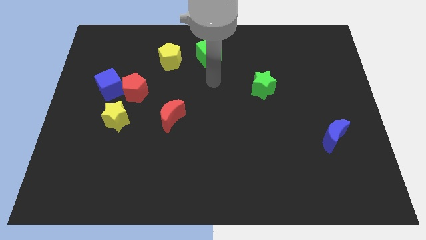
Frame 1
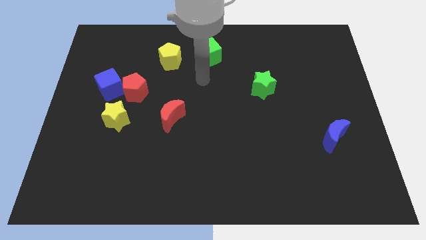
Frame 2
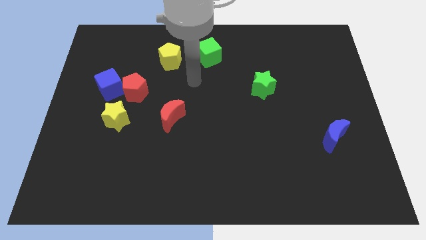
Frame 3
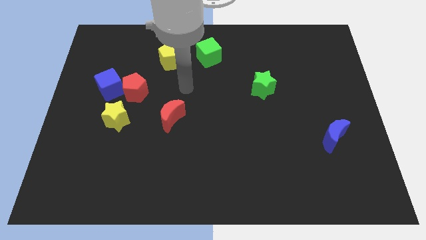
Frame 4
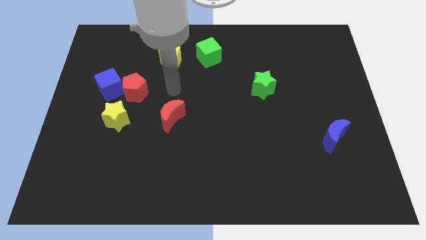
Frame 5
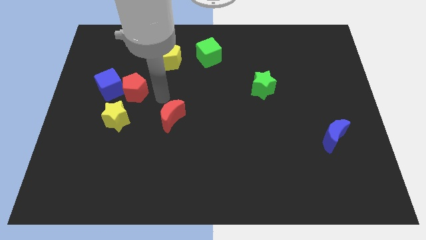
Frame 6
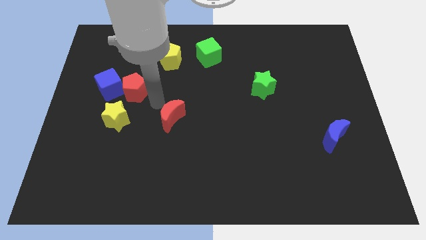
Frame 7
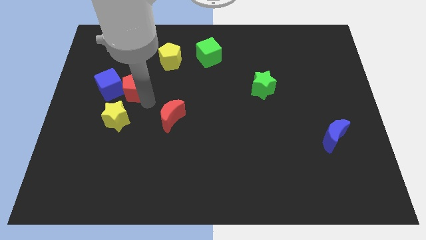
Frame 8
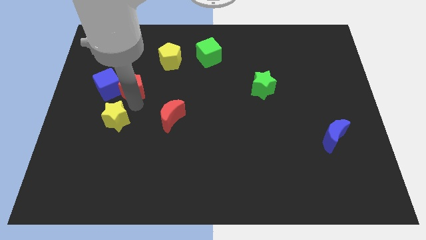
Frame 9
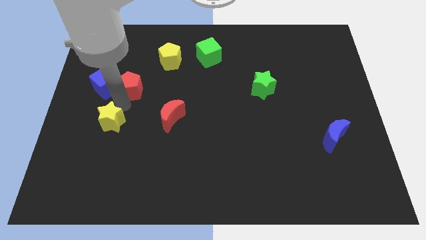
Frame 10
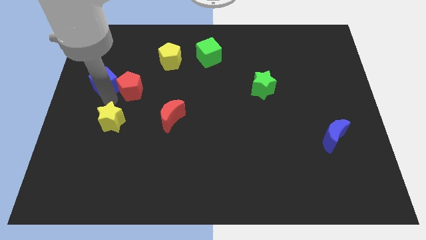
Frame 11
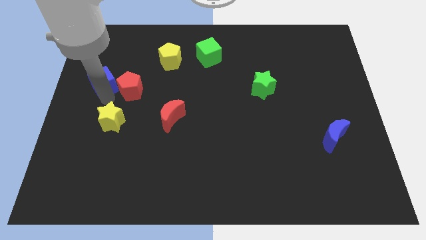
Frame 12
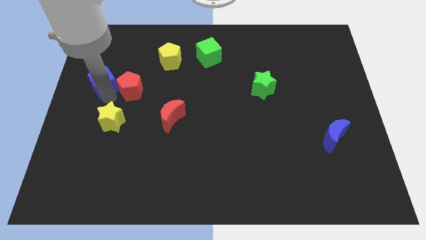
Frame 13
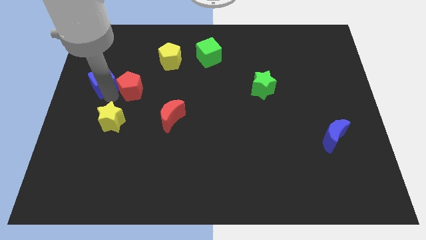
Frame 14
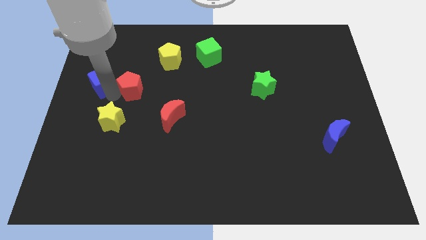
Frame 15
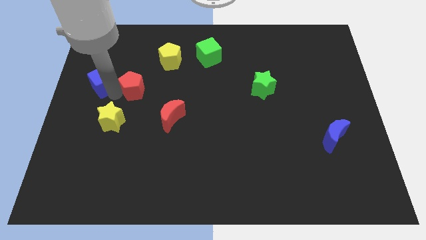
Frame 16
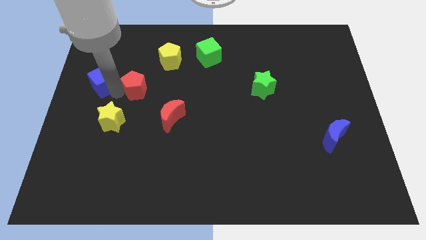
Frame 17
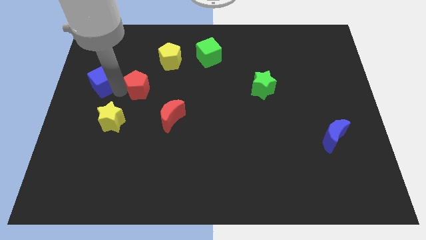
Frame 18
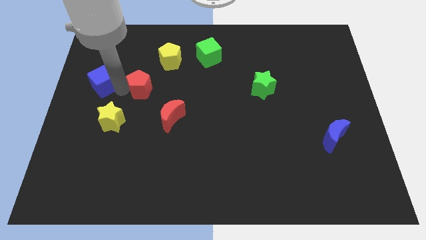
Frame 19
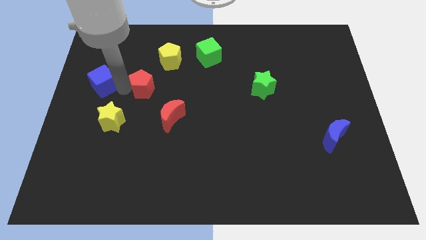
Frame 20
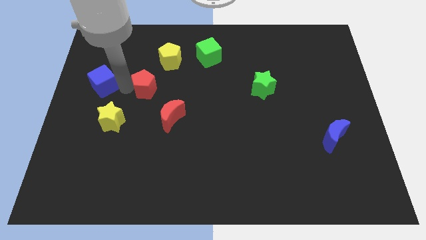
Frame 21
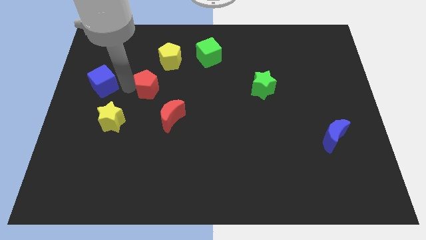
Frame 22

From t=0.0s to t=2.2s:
separate the red pentagon from the blue cube and yellow star

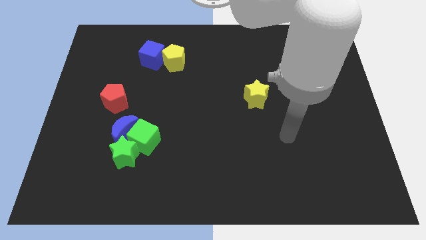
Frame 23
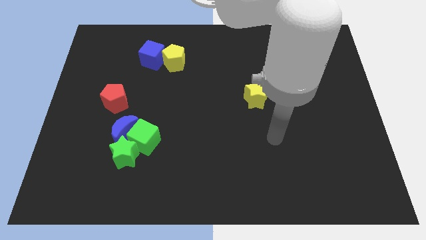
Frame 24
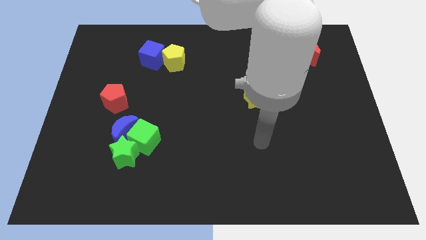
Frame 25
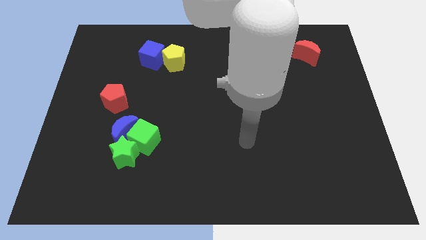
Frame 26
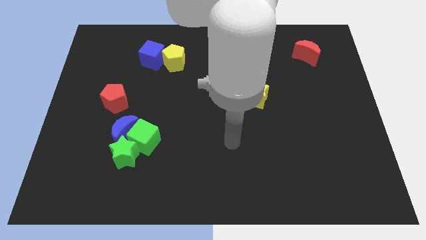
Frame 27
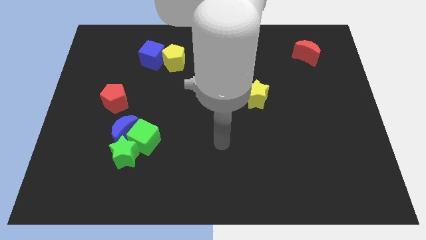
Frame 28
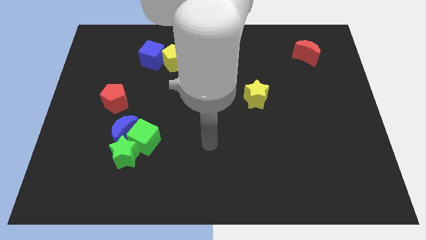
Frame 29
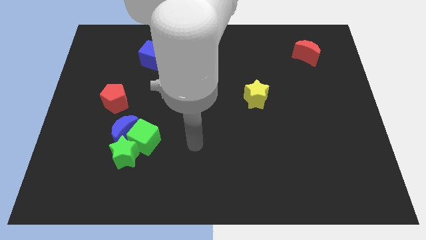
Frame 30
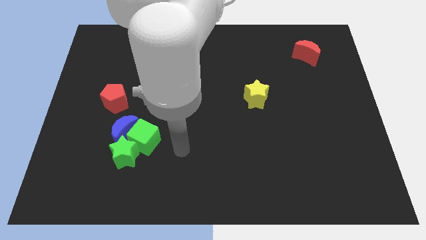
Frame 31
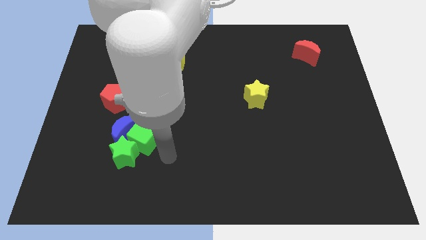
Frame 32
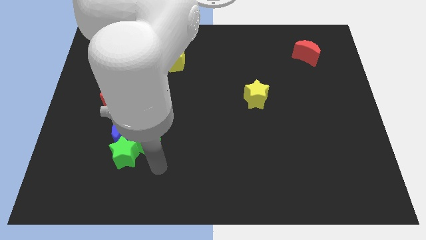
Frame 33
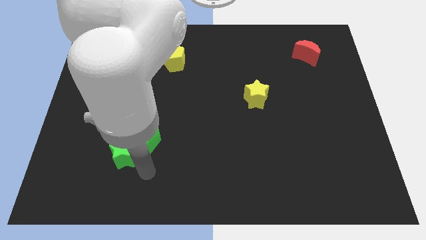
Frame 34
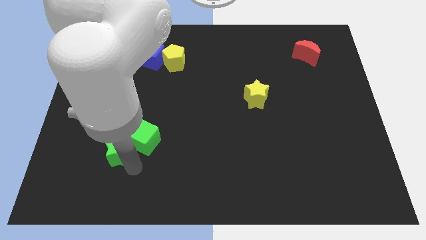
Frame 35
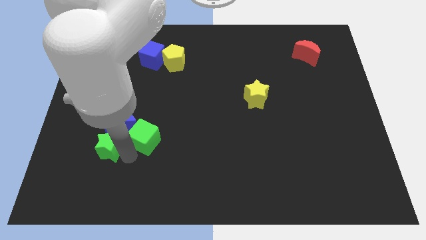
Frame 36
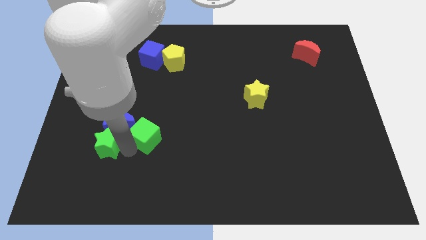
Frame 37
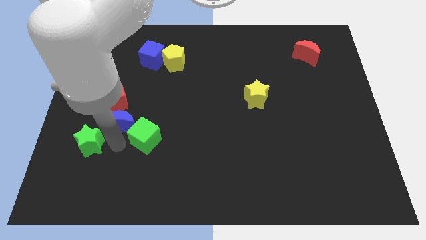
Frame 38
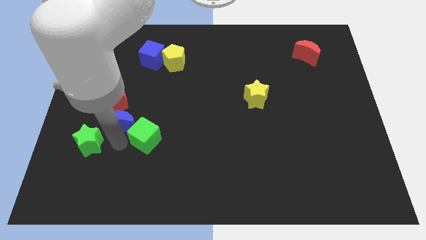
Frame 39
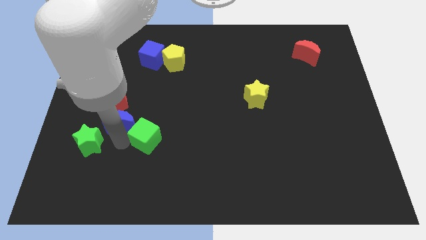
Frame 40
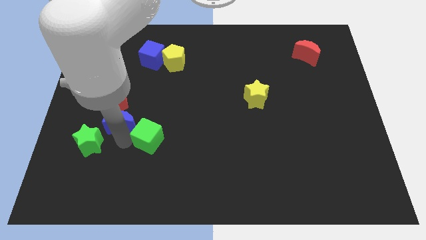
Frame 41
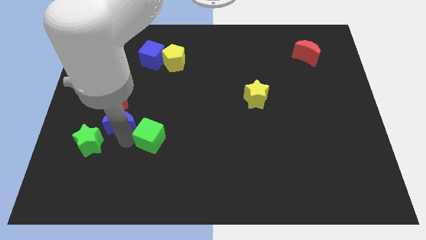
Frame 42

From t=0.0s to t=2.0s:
pull the green cube apart from the blue moon and green star

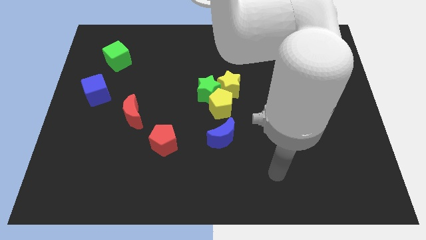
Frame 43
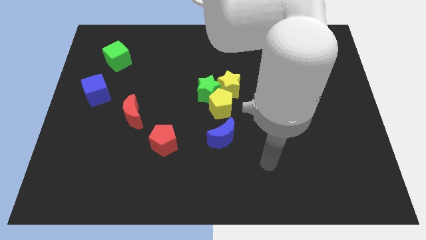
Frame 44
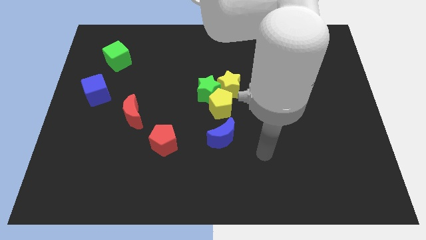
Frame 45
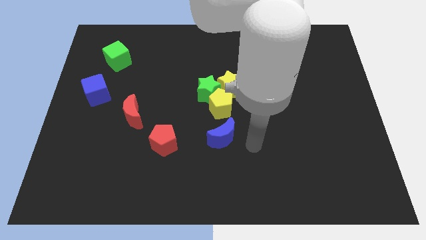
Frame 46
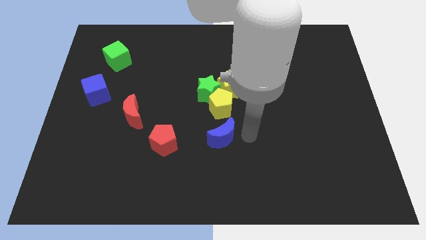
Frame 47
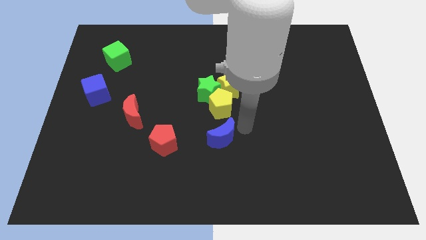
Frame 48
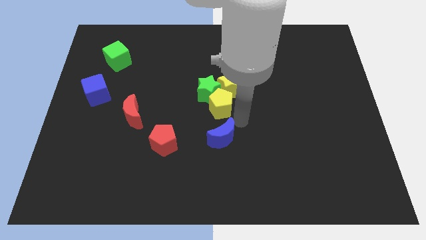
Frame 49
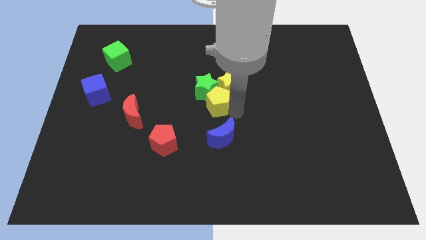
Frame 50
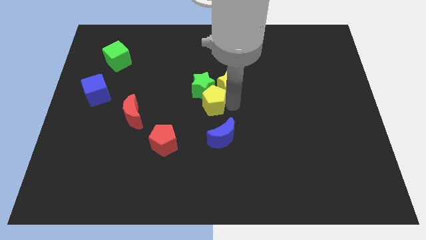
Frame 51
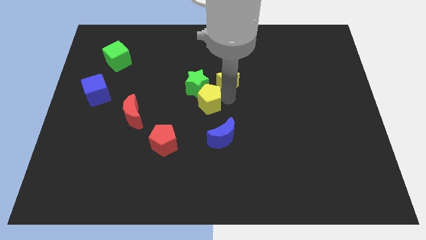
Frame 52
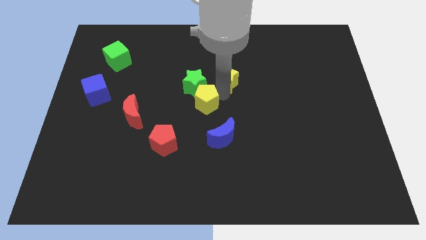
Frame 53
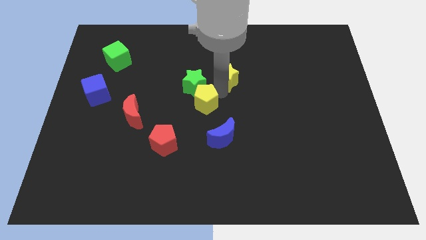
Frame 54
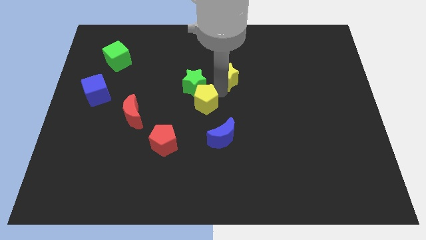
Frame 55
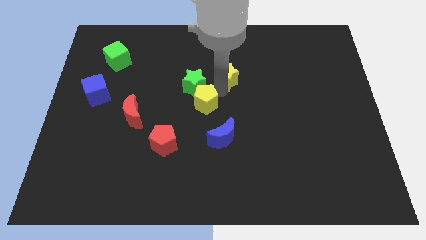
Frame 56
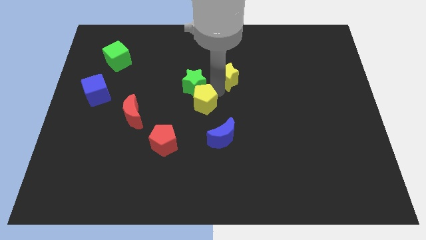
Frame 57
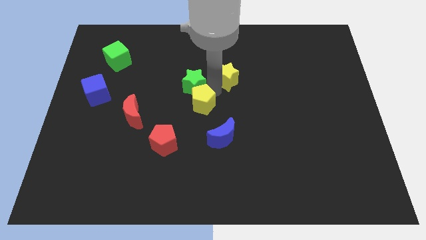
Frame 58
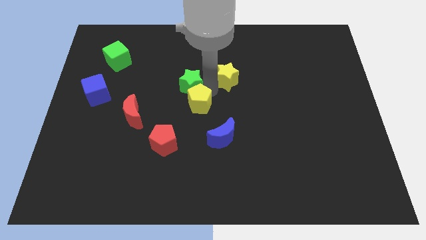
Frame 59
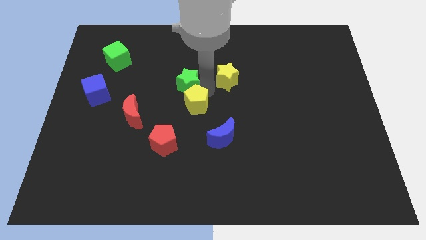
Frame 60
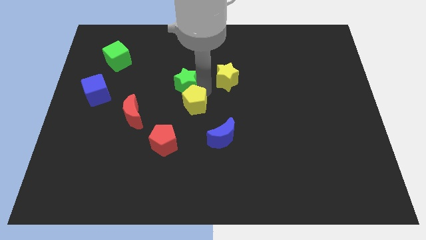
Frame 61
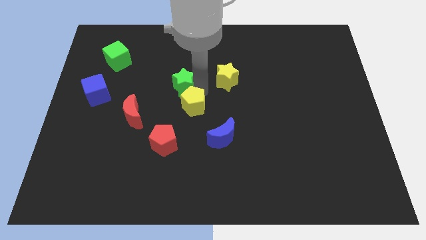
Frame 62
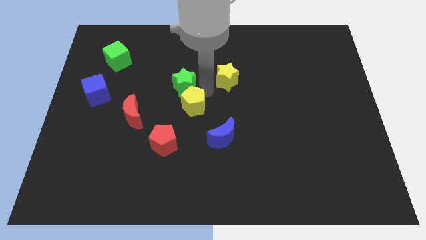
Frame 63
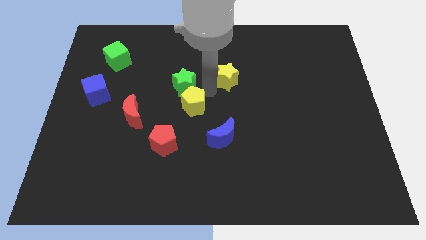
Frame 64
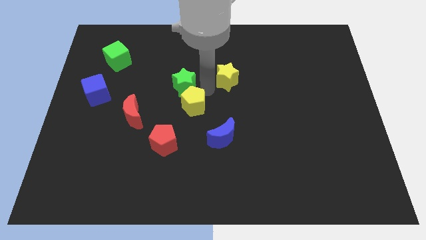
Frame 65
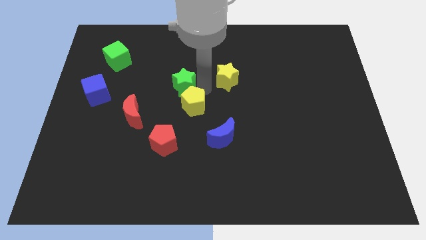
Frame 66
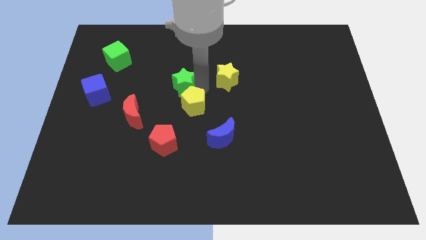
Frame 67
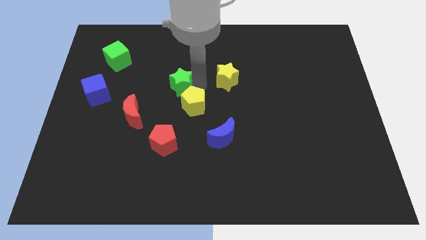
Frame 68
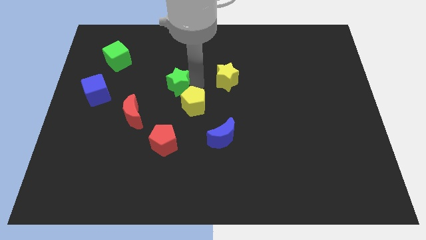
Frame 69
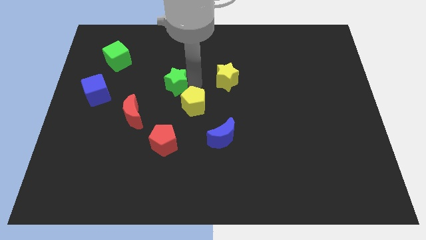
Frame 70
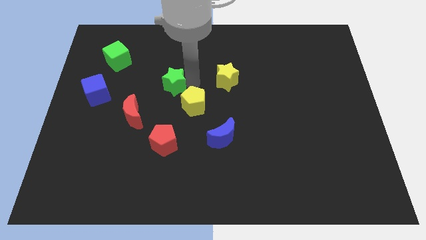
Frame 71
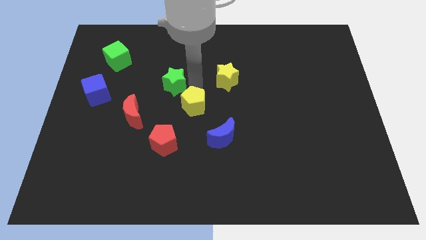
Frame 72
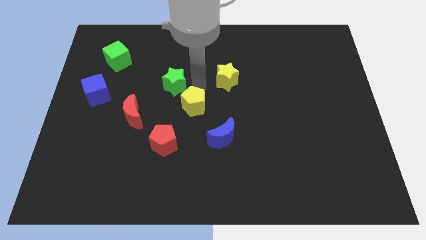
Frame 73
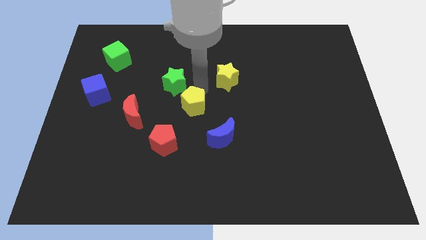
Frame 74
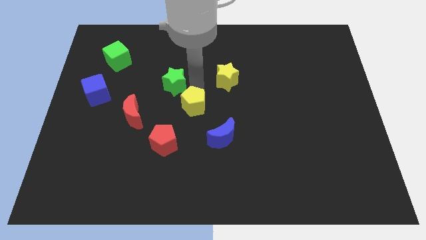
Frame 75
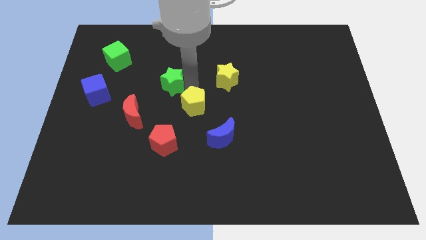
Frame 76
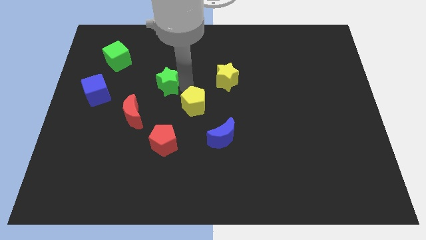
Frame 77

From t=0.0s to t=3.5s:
separate the green star from the yellow pentagon and yellow star

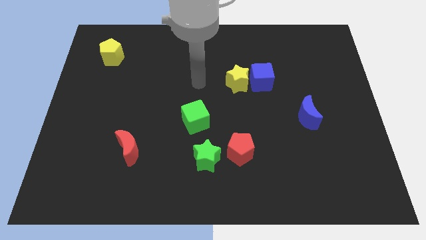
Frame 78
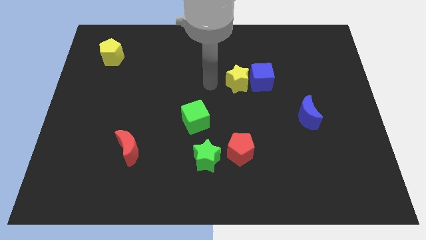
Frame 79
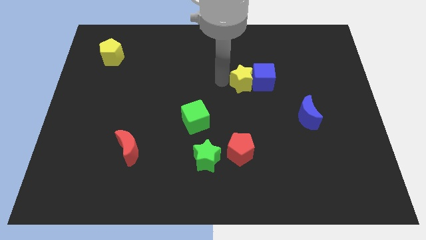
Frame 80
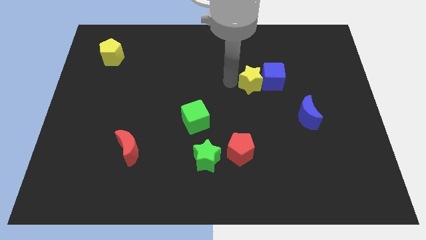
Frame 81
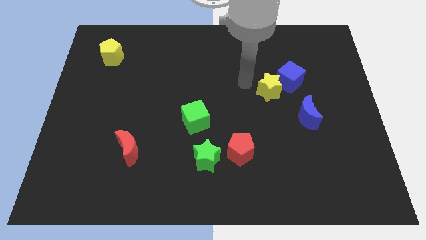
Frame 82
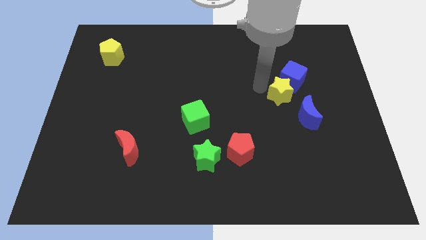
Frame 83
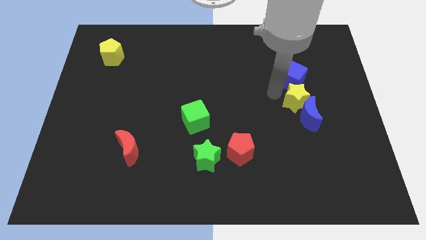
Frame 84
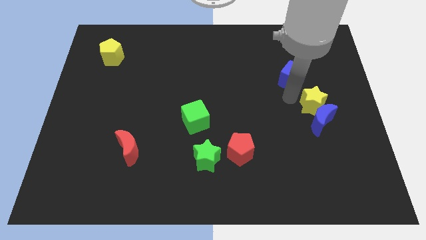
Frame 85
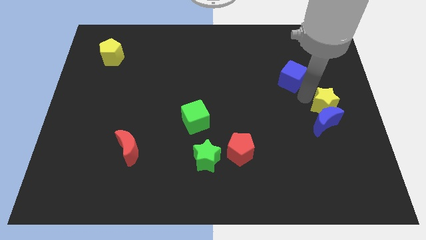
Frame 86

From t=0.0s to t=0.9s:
separate the blue cube from the yellow star

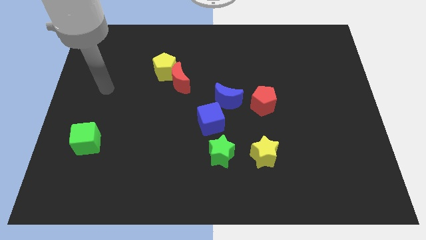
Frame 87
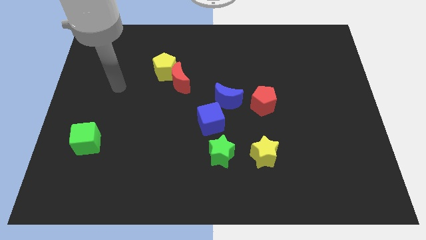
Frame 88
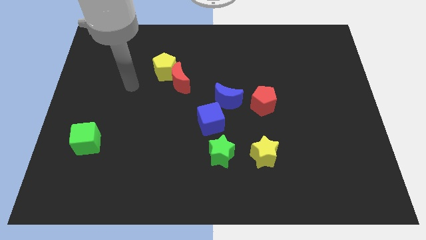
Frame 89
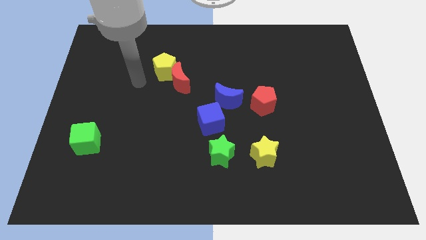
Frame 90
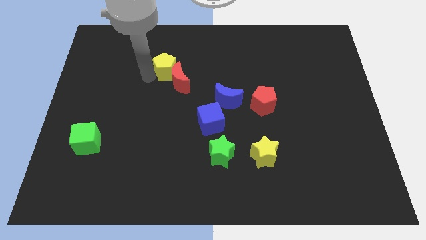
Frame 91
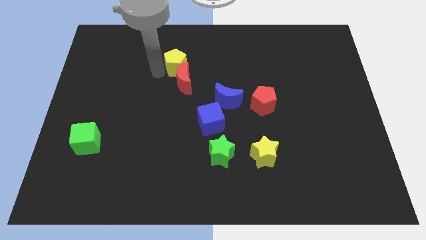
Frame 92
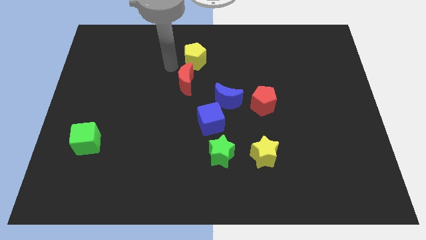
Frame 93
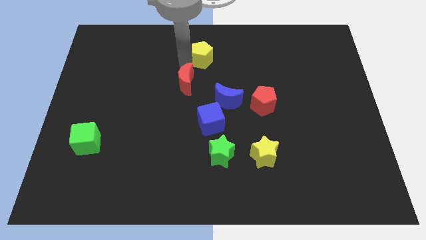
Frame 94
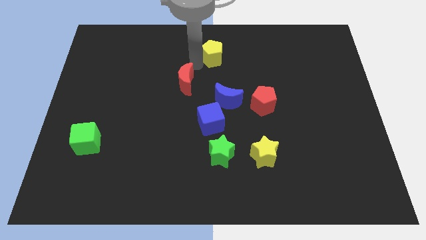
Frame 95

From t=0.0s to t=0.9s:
pull the red moon apart from the yellow pentagon
